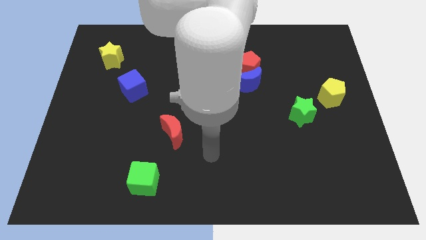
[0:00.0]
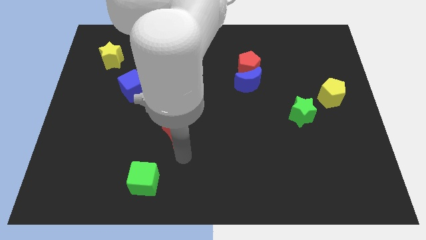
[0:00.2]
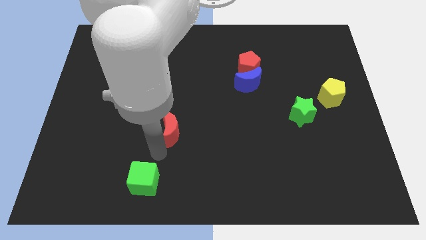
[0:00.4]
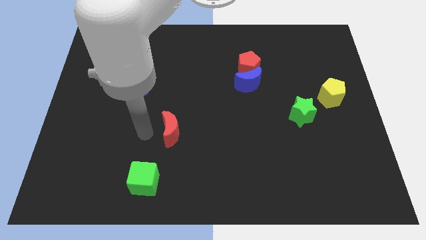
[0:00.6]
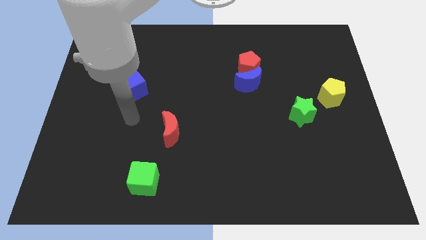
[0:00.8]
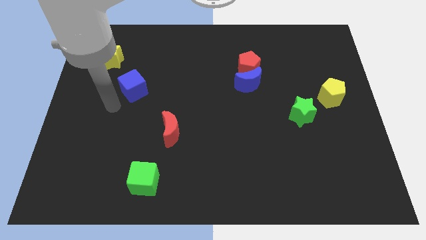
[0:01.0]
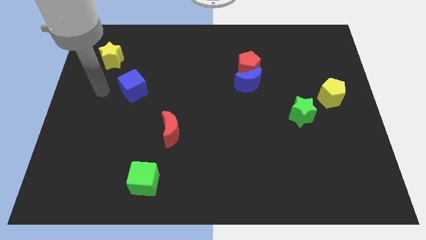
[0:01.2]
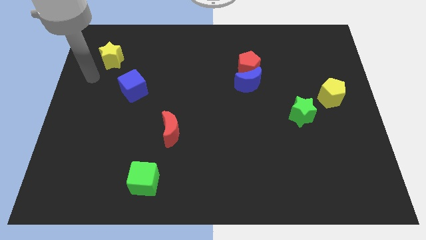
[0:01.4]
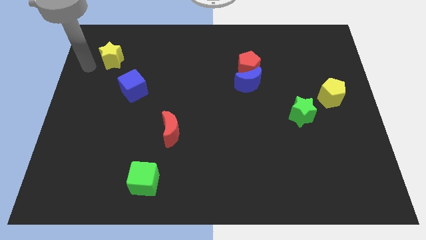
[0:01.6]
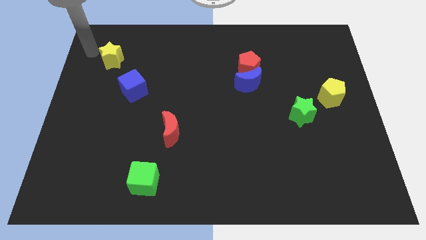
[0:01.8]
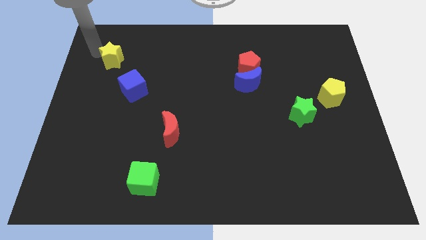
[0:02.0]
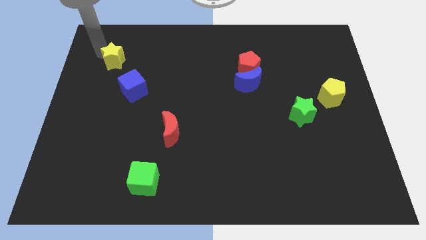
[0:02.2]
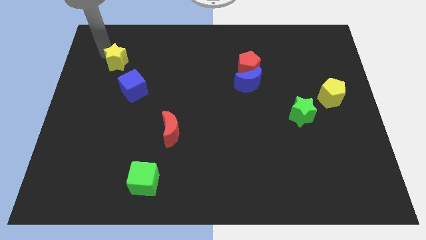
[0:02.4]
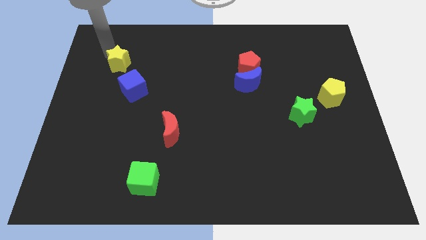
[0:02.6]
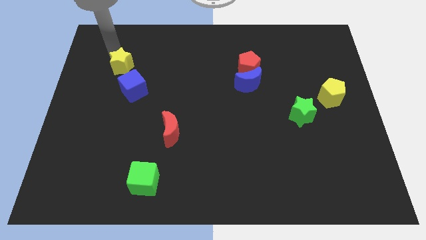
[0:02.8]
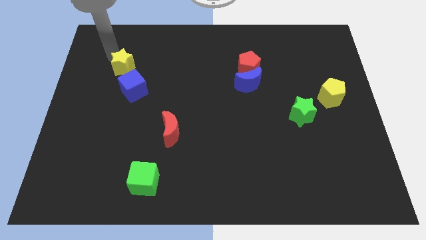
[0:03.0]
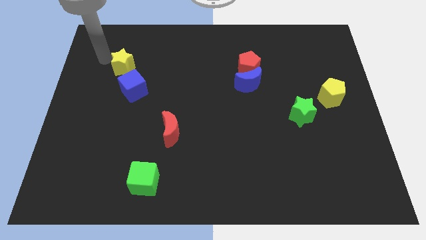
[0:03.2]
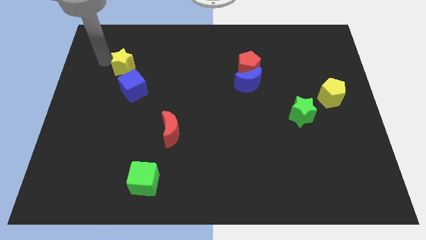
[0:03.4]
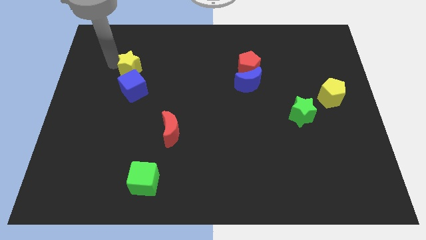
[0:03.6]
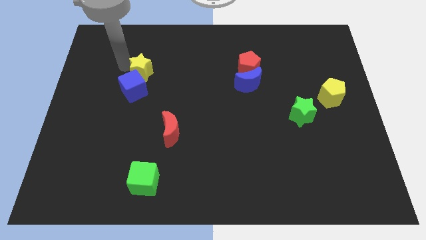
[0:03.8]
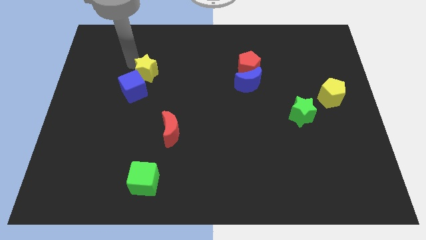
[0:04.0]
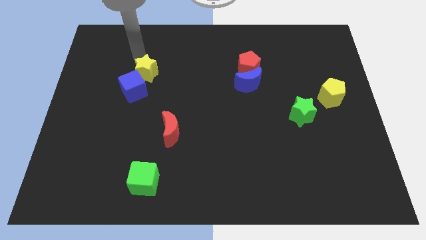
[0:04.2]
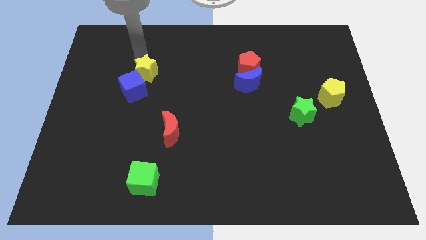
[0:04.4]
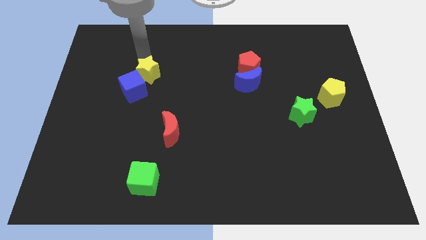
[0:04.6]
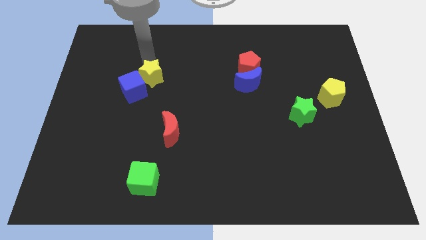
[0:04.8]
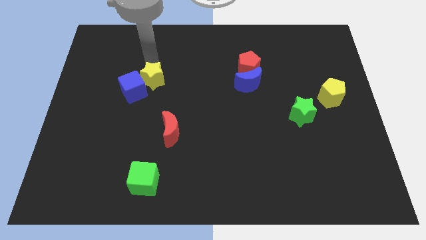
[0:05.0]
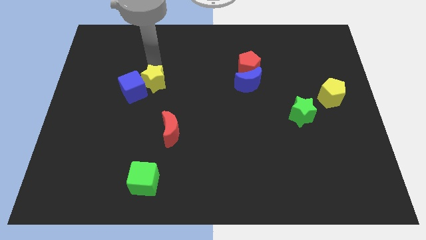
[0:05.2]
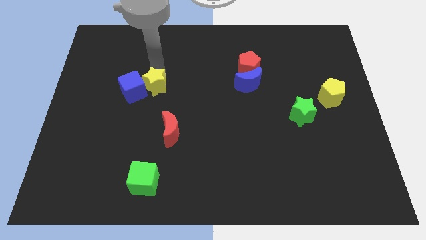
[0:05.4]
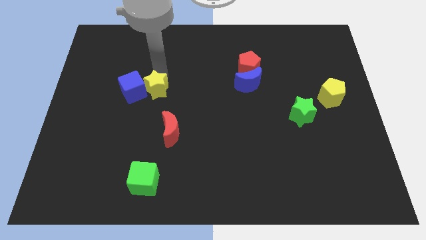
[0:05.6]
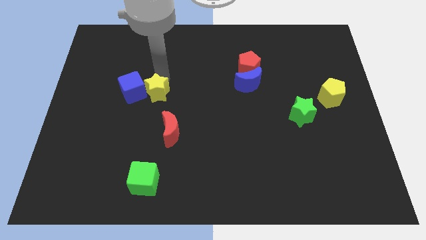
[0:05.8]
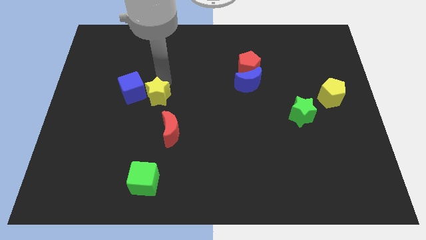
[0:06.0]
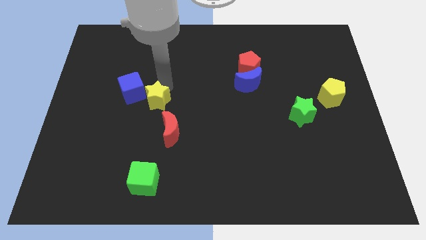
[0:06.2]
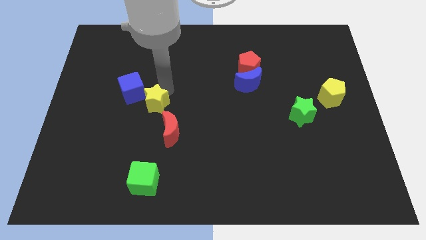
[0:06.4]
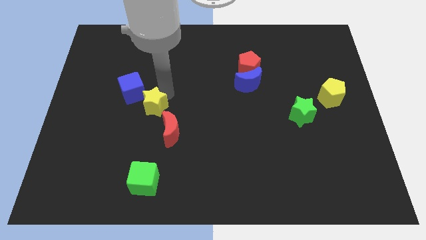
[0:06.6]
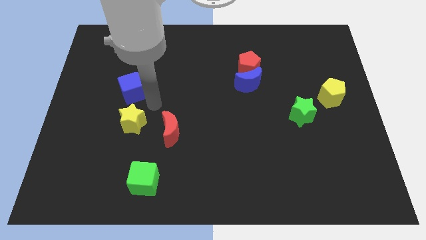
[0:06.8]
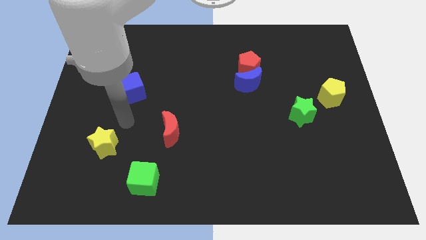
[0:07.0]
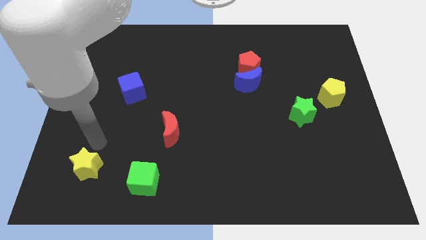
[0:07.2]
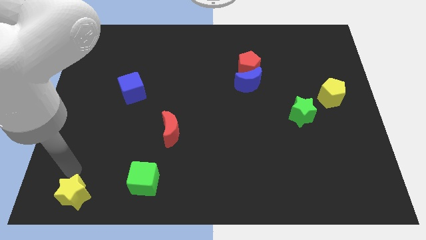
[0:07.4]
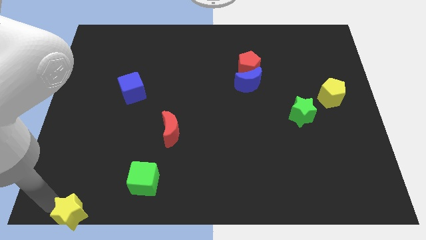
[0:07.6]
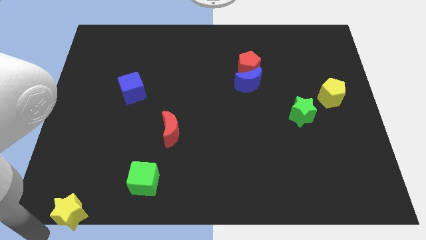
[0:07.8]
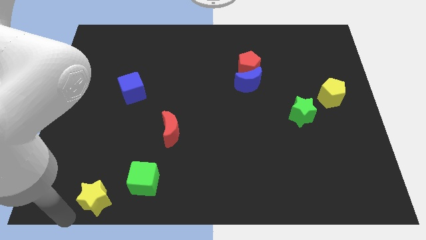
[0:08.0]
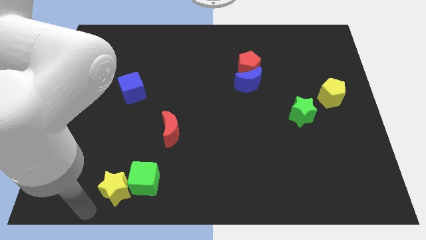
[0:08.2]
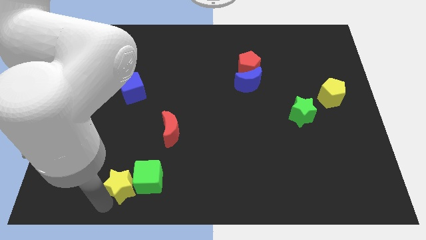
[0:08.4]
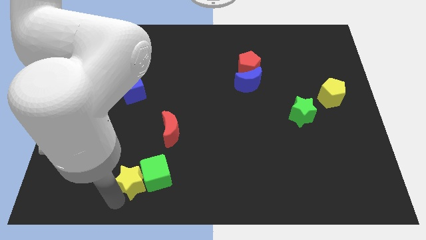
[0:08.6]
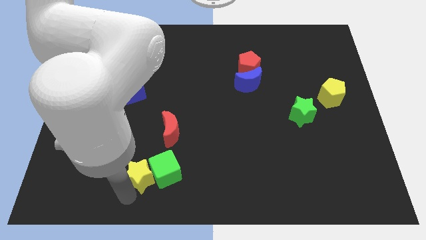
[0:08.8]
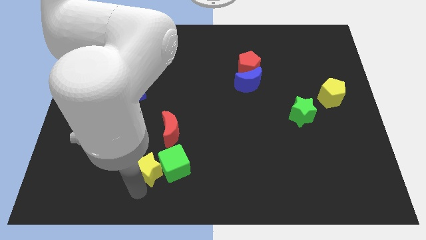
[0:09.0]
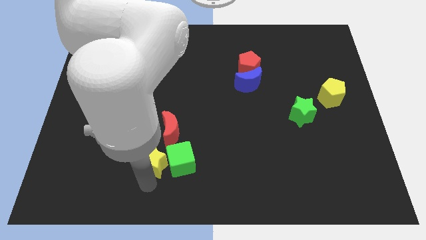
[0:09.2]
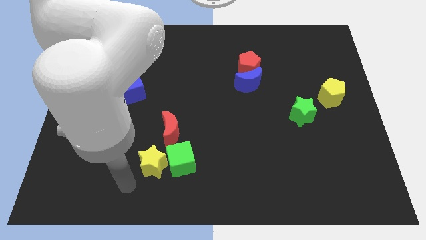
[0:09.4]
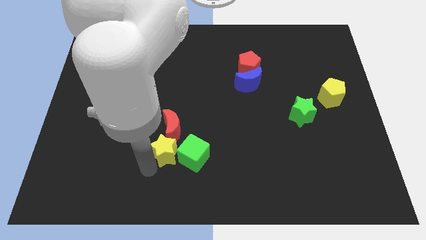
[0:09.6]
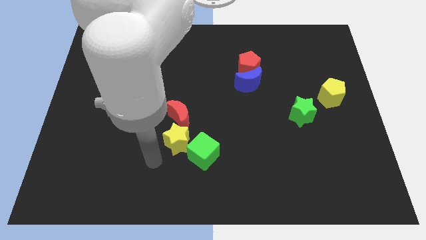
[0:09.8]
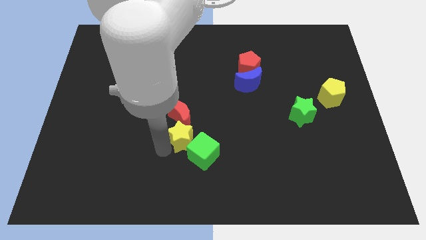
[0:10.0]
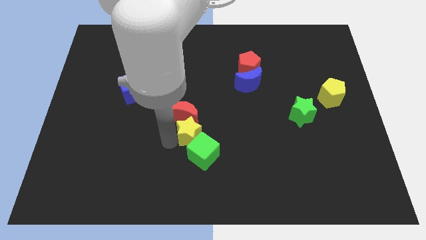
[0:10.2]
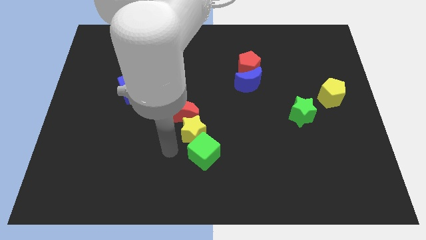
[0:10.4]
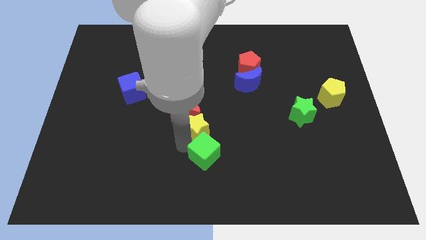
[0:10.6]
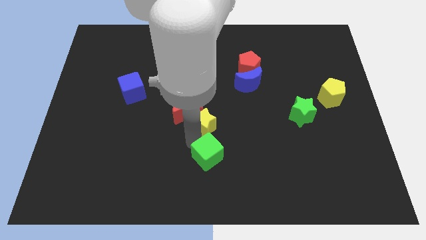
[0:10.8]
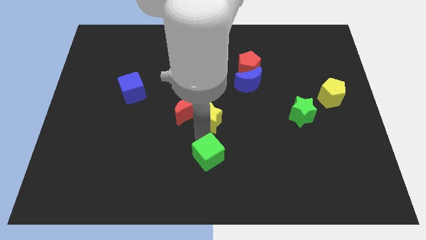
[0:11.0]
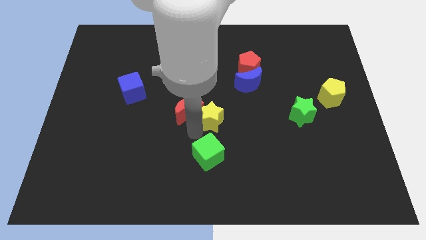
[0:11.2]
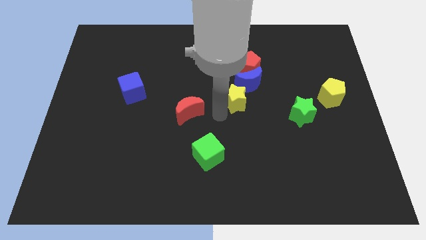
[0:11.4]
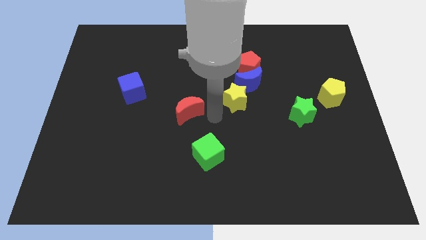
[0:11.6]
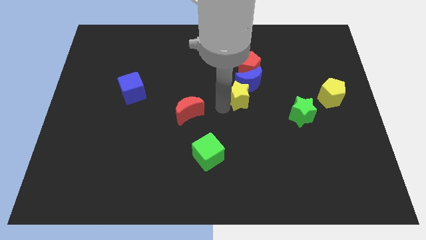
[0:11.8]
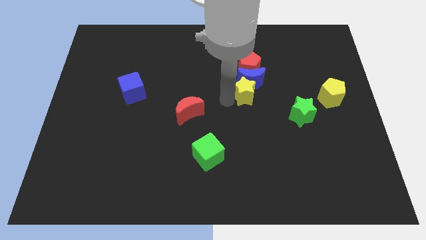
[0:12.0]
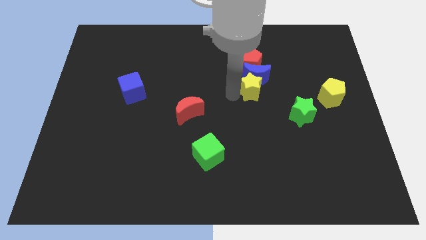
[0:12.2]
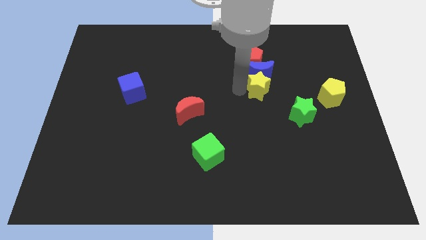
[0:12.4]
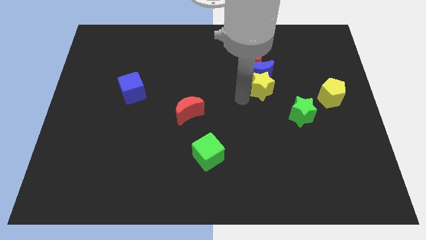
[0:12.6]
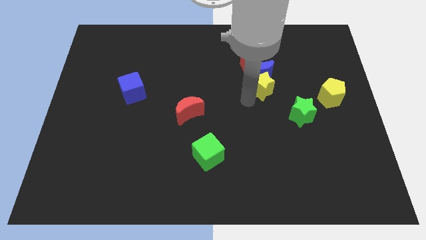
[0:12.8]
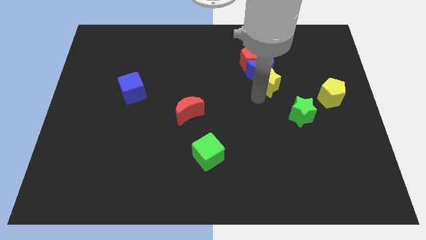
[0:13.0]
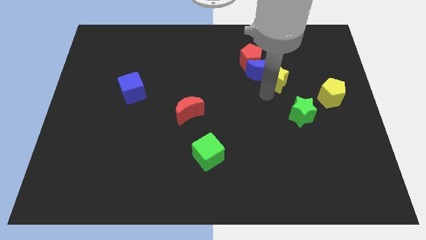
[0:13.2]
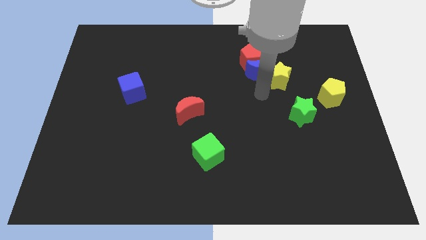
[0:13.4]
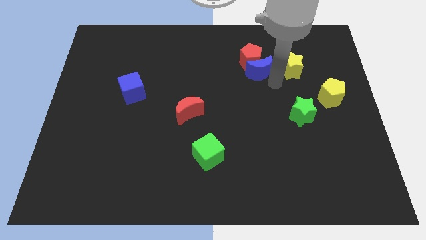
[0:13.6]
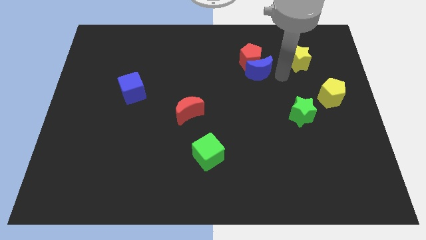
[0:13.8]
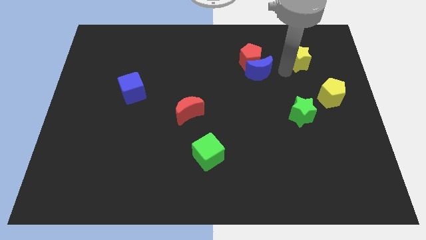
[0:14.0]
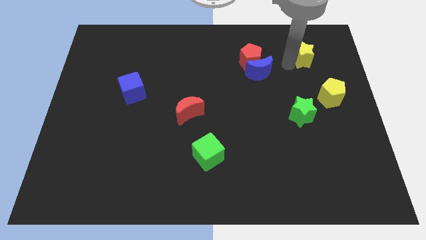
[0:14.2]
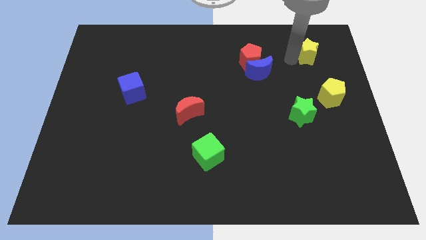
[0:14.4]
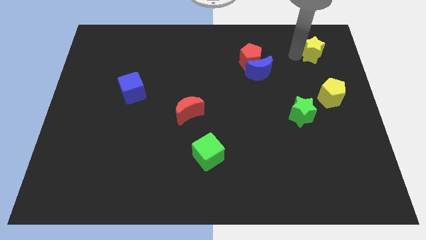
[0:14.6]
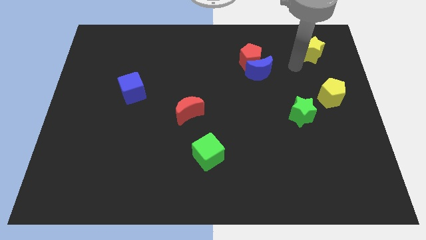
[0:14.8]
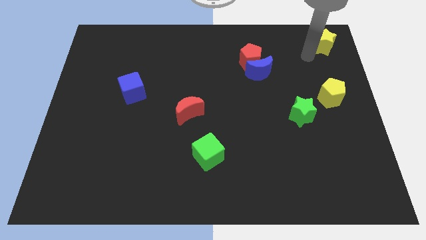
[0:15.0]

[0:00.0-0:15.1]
move the yellow star to the top right corner
